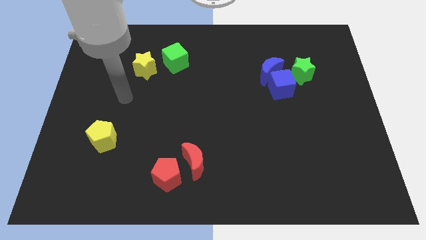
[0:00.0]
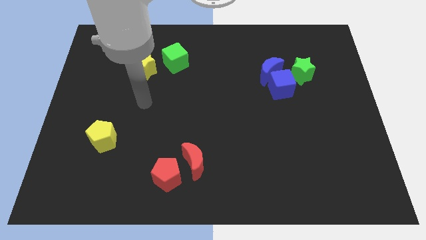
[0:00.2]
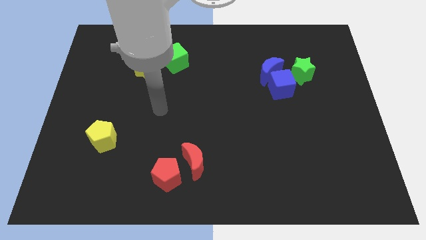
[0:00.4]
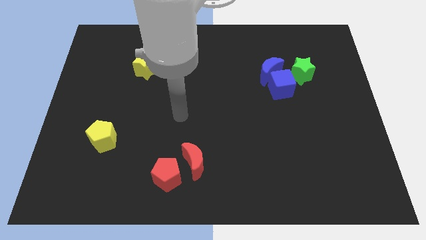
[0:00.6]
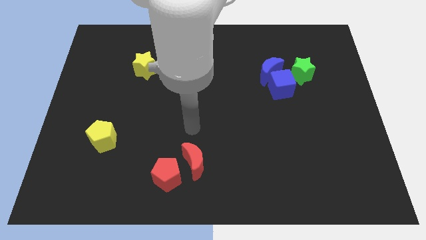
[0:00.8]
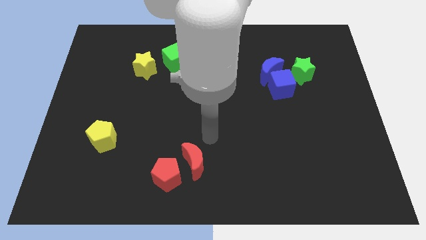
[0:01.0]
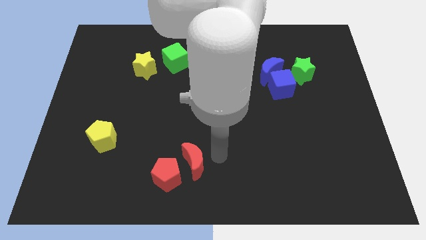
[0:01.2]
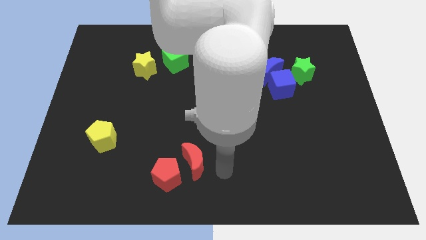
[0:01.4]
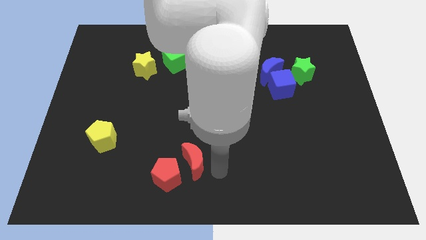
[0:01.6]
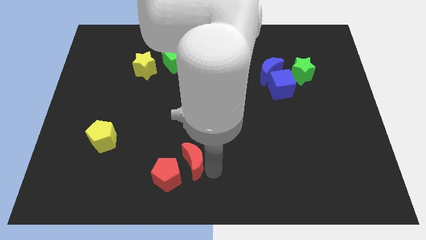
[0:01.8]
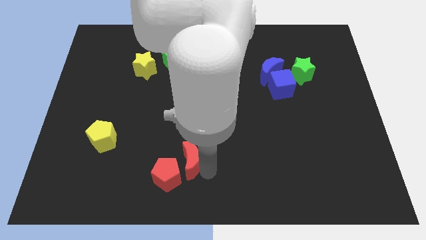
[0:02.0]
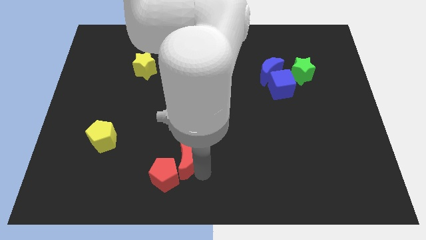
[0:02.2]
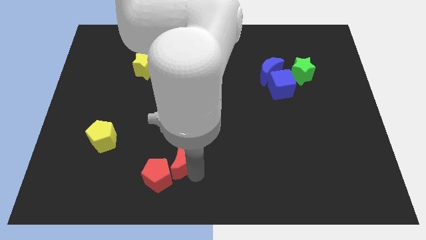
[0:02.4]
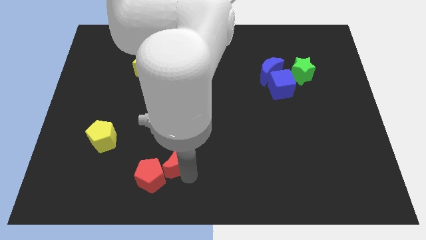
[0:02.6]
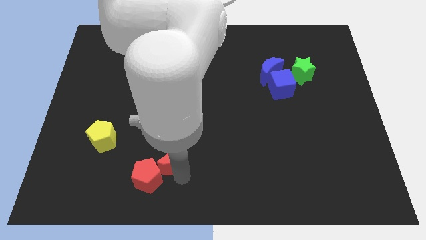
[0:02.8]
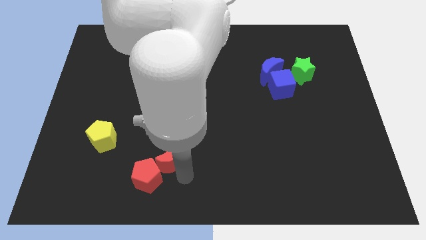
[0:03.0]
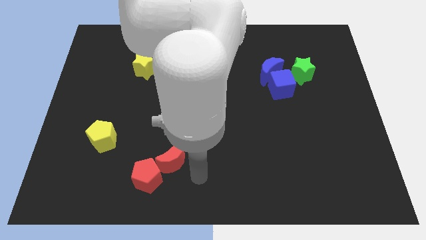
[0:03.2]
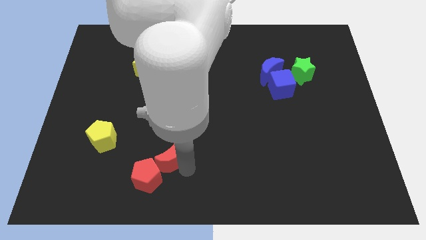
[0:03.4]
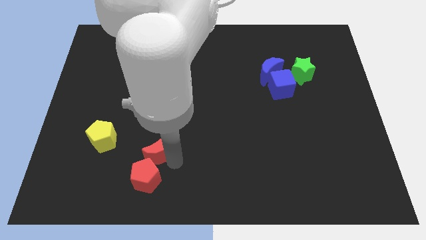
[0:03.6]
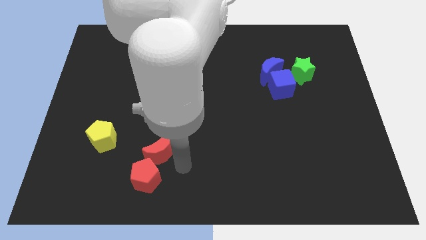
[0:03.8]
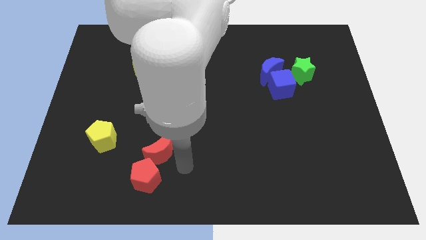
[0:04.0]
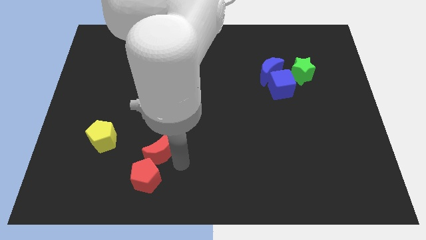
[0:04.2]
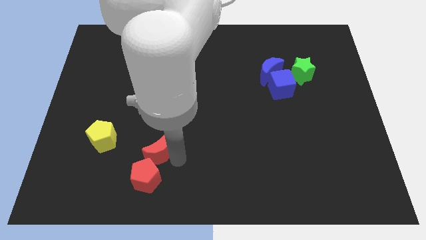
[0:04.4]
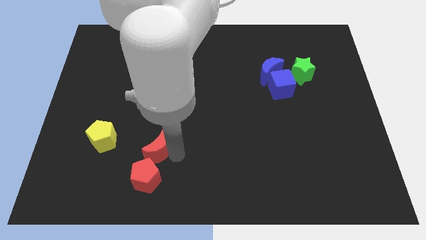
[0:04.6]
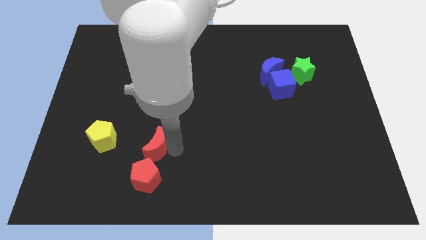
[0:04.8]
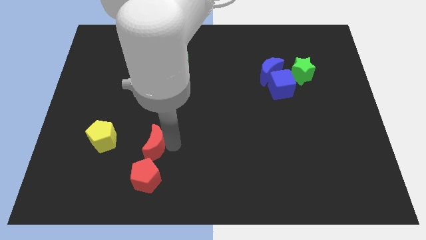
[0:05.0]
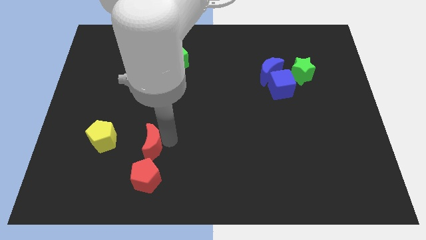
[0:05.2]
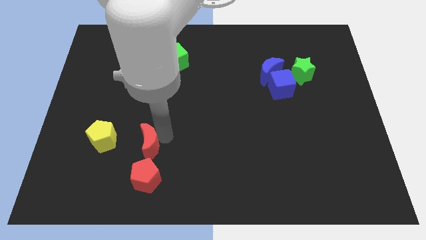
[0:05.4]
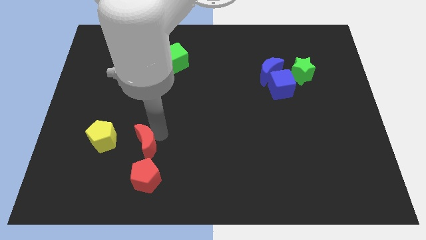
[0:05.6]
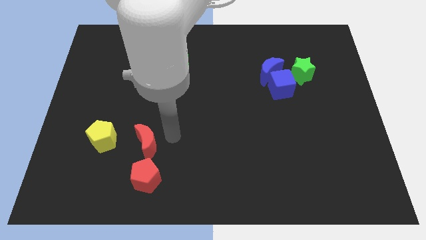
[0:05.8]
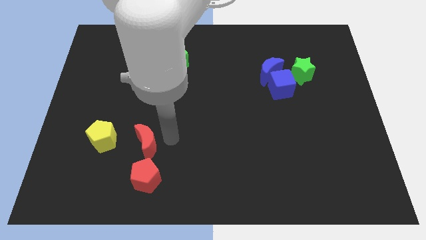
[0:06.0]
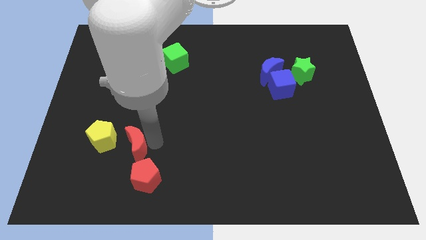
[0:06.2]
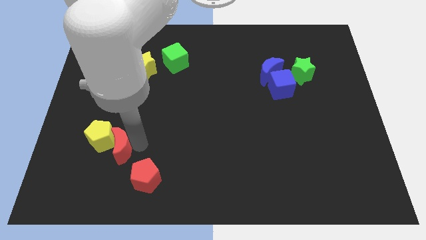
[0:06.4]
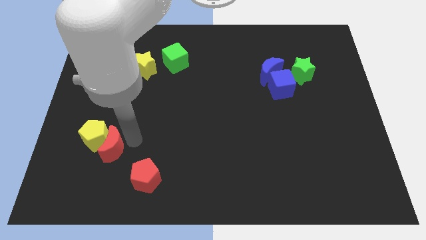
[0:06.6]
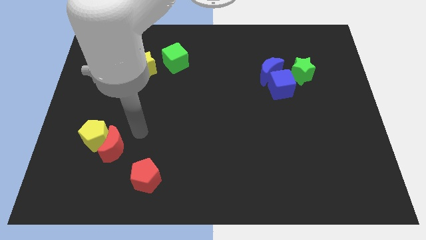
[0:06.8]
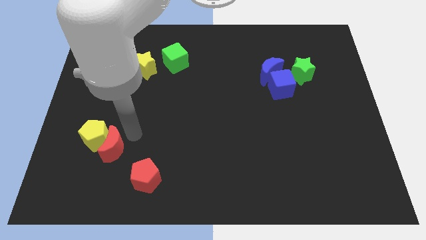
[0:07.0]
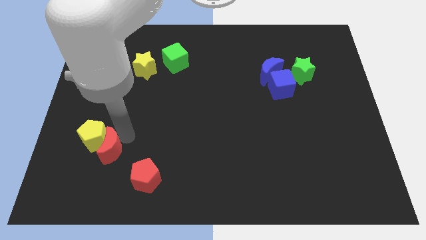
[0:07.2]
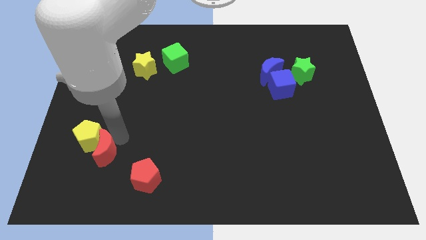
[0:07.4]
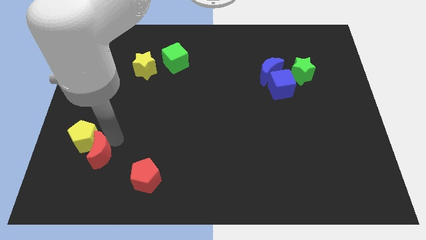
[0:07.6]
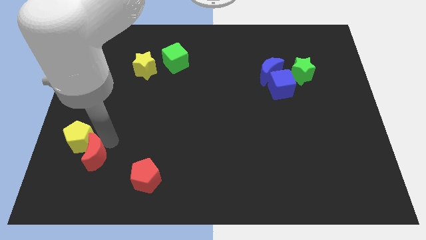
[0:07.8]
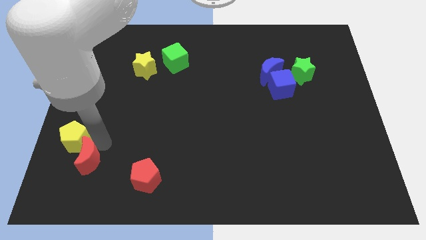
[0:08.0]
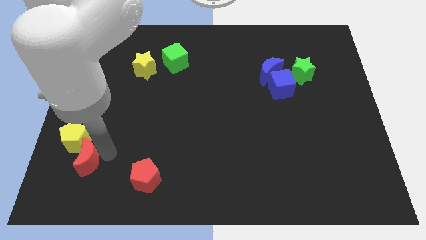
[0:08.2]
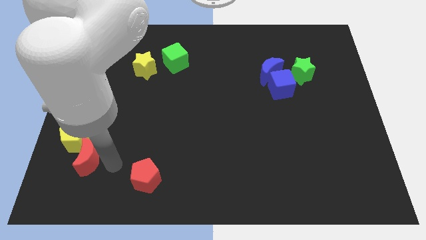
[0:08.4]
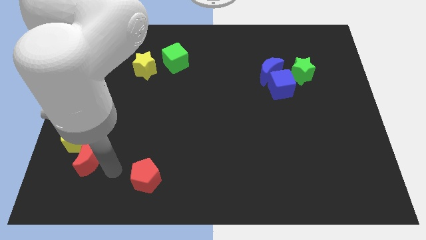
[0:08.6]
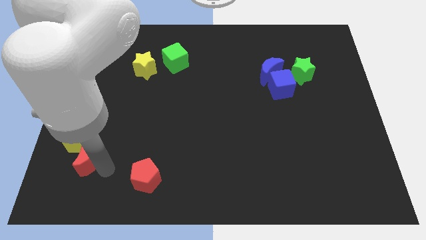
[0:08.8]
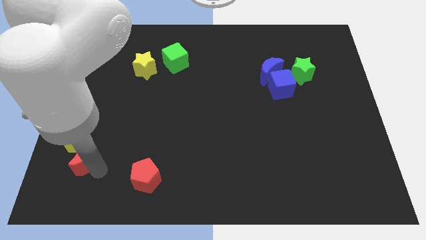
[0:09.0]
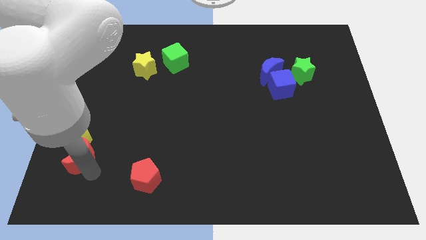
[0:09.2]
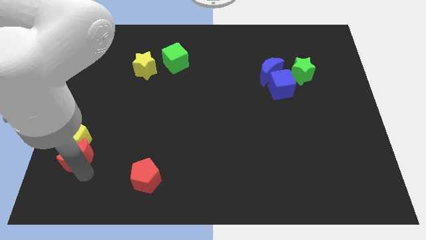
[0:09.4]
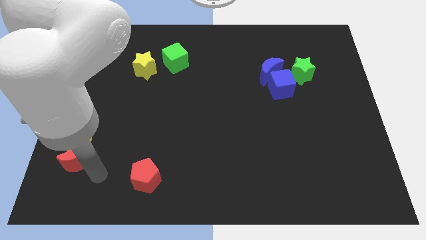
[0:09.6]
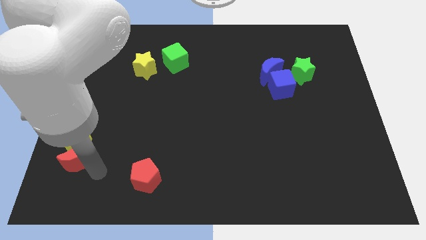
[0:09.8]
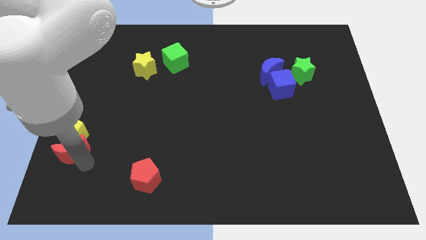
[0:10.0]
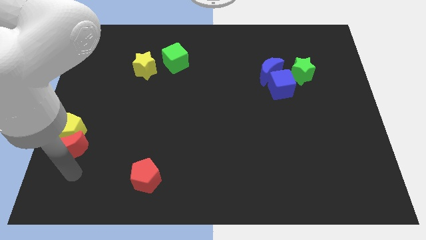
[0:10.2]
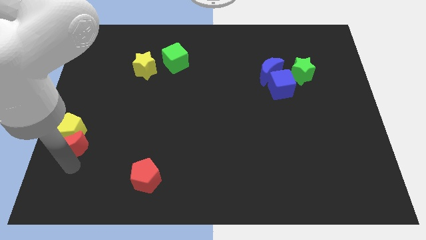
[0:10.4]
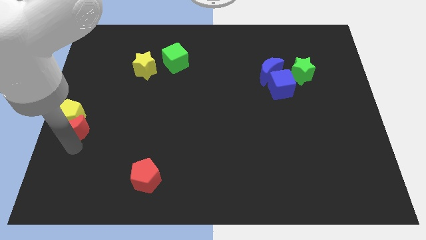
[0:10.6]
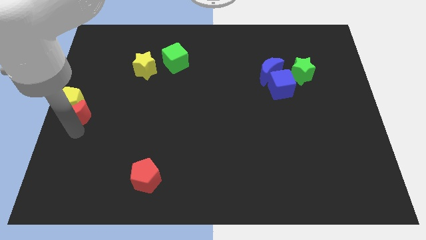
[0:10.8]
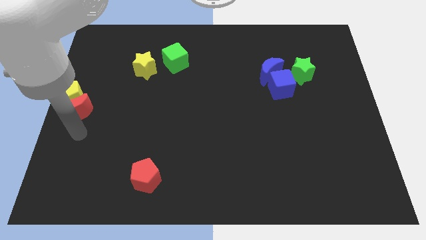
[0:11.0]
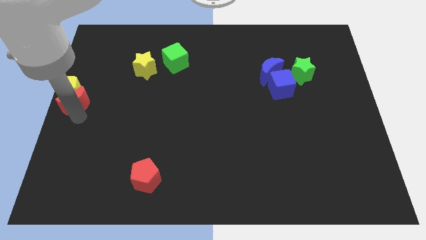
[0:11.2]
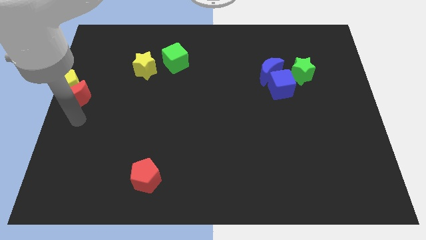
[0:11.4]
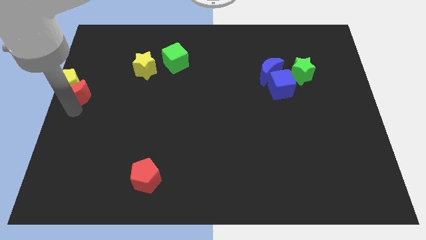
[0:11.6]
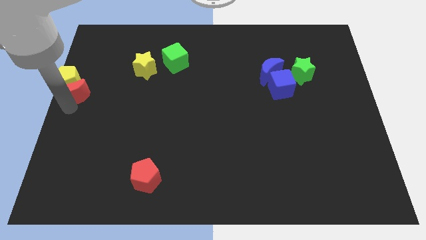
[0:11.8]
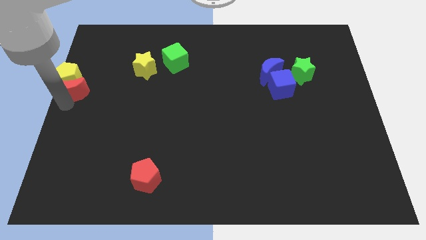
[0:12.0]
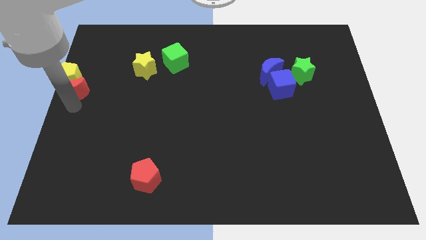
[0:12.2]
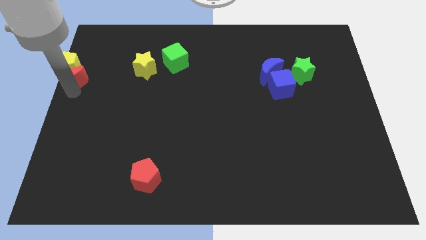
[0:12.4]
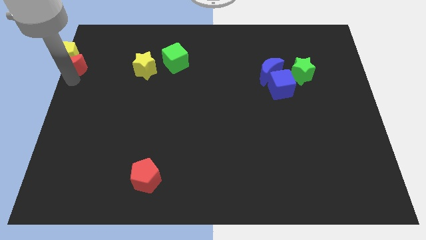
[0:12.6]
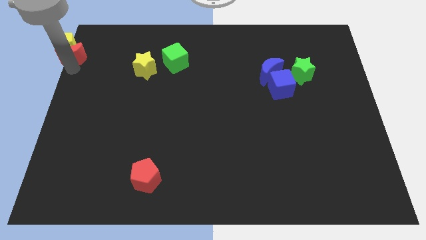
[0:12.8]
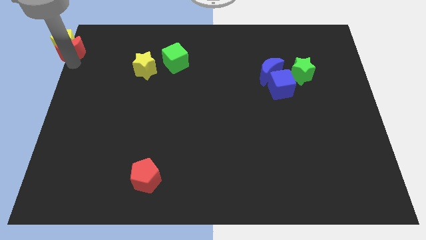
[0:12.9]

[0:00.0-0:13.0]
push the red moon to the top left of the board

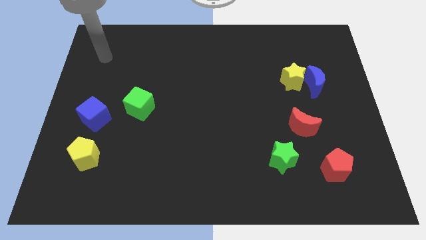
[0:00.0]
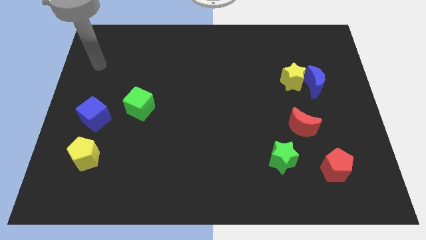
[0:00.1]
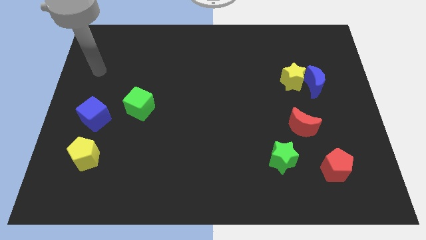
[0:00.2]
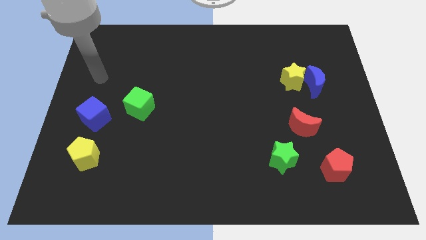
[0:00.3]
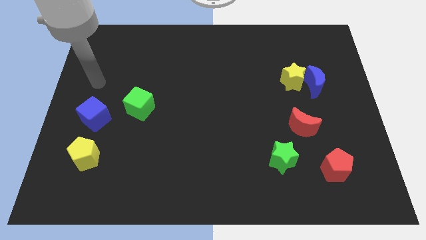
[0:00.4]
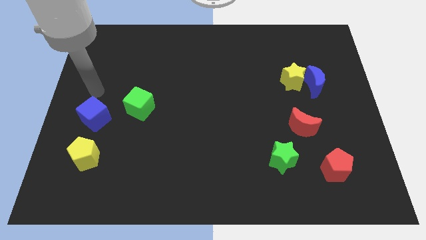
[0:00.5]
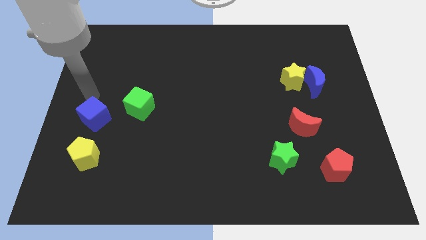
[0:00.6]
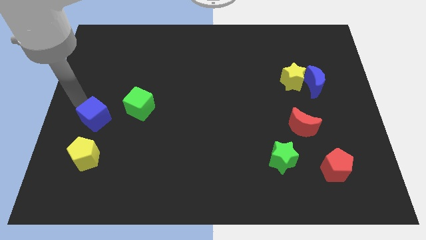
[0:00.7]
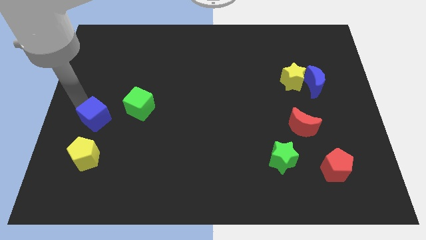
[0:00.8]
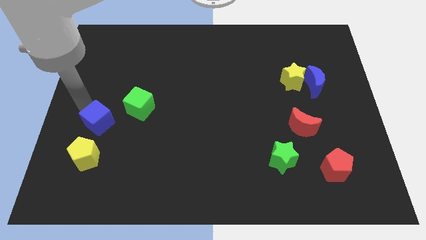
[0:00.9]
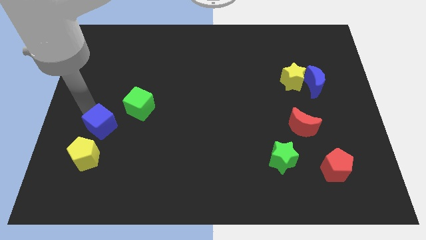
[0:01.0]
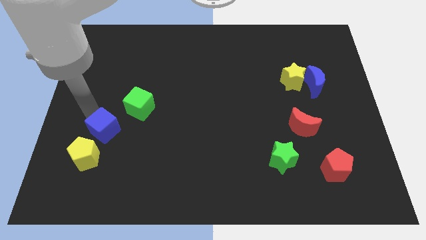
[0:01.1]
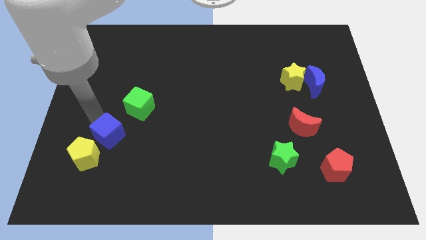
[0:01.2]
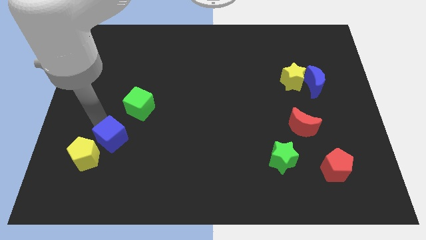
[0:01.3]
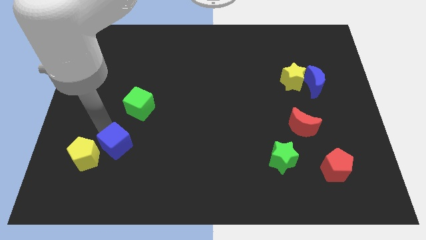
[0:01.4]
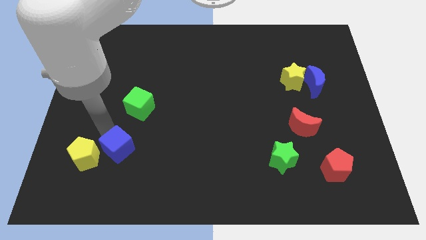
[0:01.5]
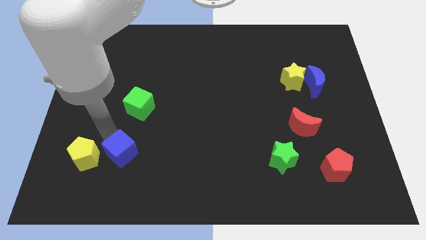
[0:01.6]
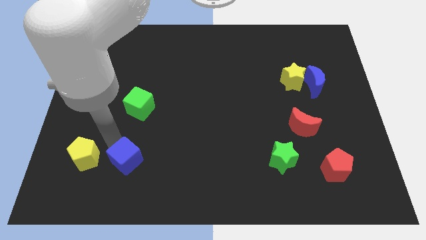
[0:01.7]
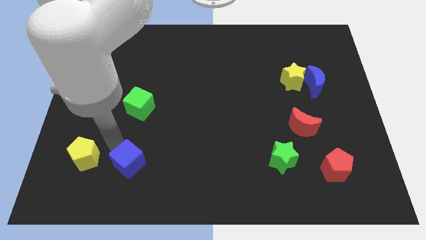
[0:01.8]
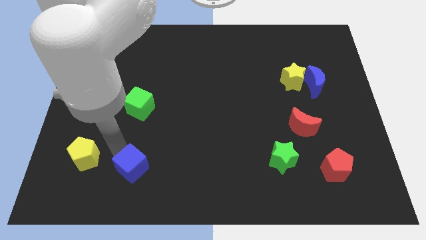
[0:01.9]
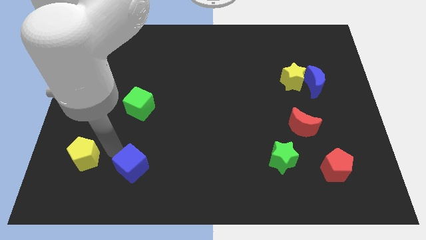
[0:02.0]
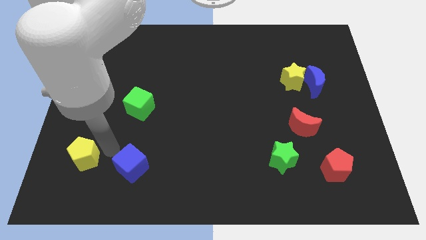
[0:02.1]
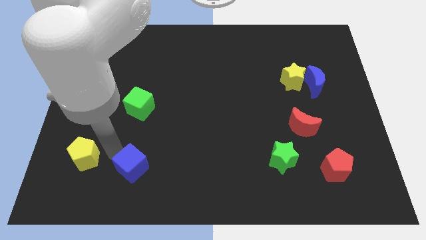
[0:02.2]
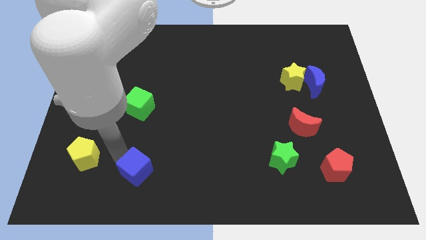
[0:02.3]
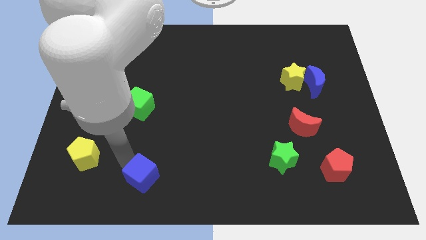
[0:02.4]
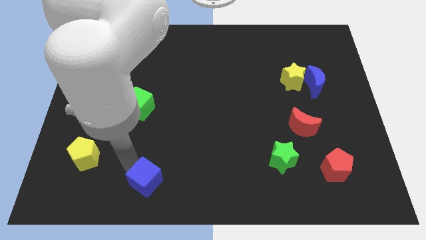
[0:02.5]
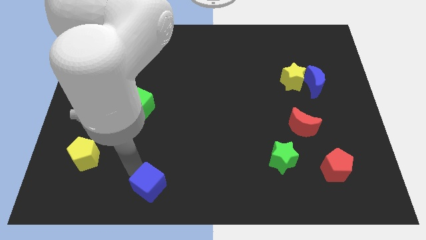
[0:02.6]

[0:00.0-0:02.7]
move the blue cube to the bottom side
